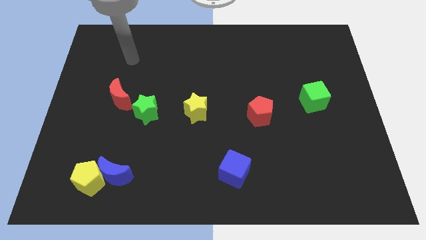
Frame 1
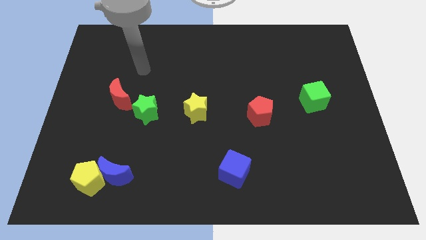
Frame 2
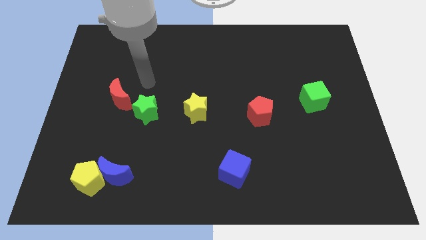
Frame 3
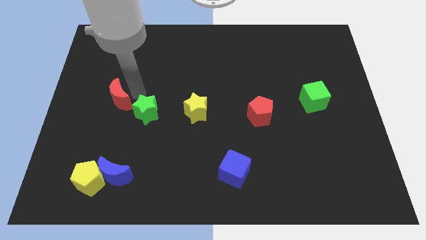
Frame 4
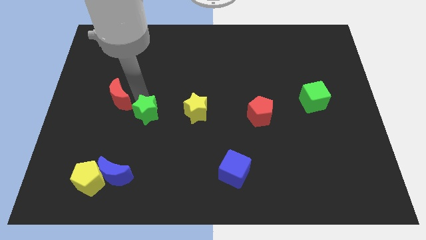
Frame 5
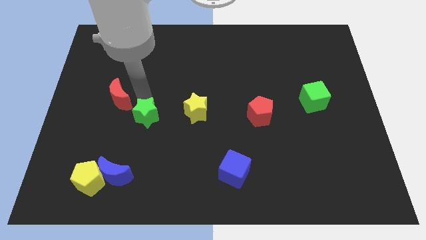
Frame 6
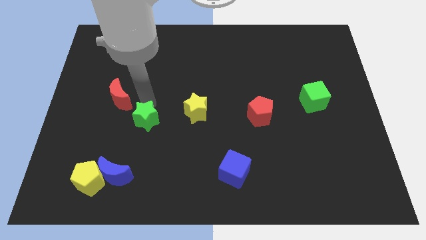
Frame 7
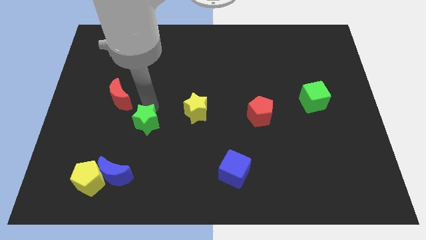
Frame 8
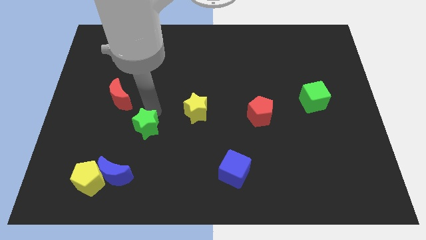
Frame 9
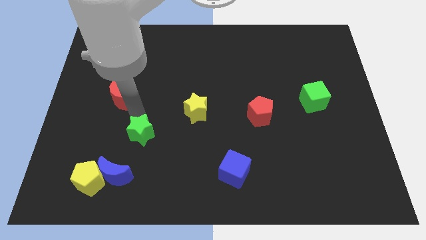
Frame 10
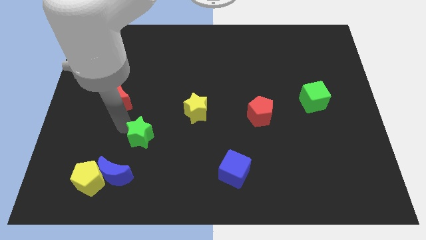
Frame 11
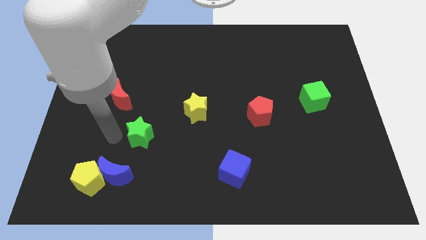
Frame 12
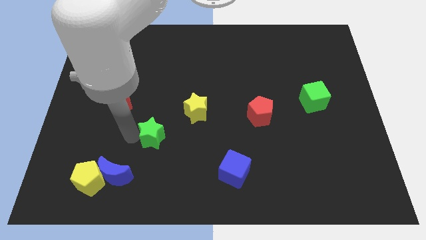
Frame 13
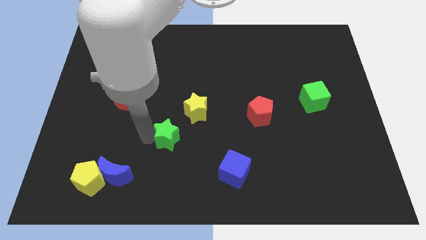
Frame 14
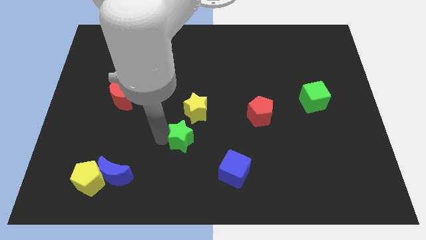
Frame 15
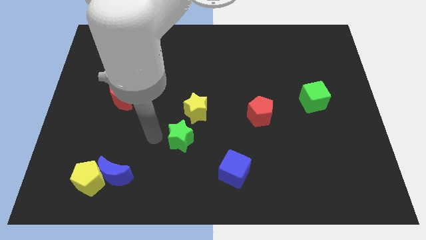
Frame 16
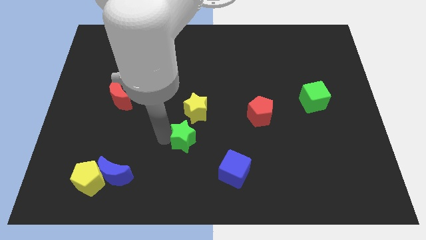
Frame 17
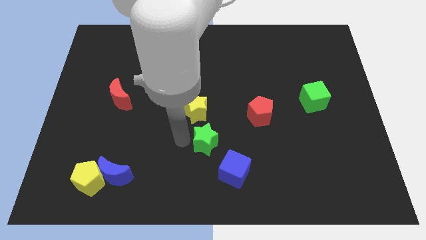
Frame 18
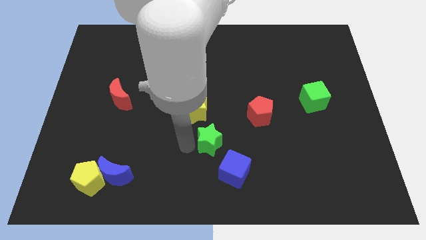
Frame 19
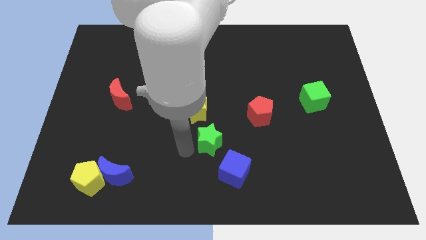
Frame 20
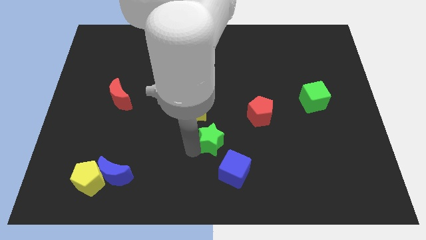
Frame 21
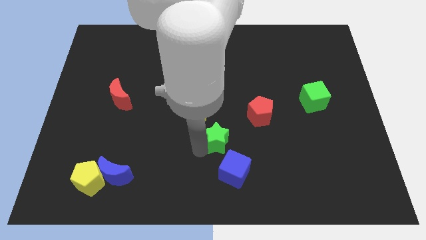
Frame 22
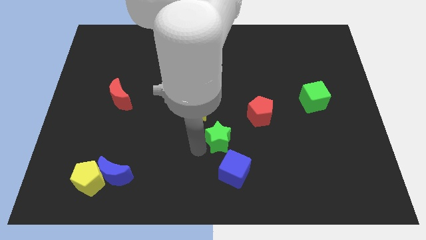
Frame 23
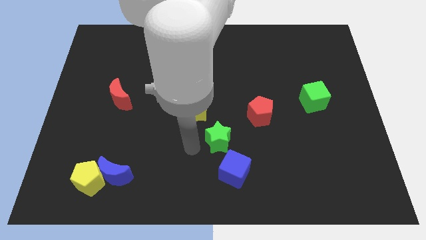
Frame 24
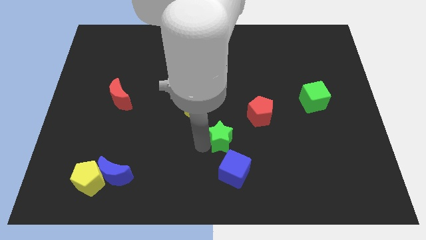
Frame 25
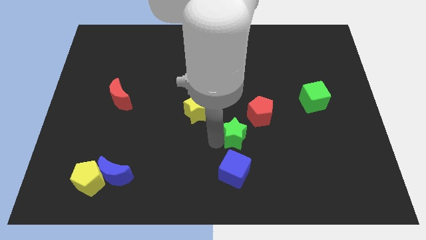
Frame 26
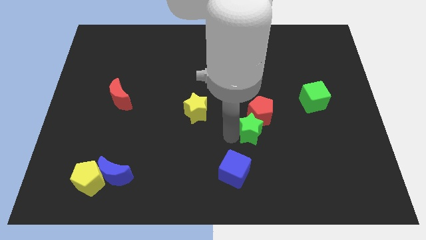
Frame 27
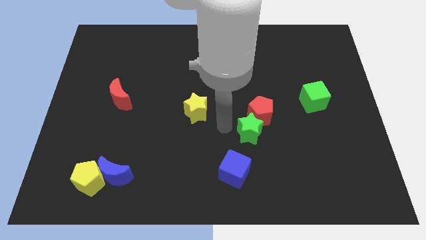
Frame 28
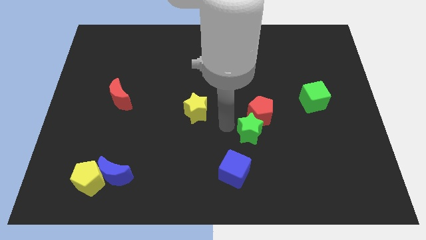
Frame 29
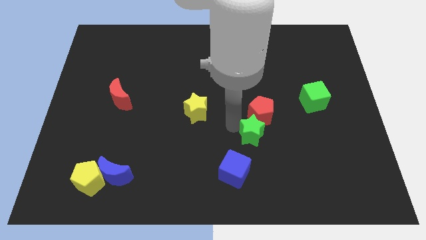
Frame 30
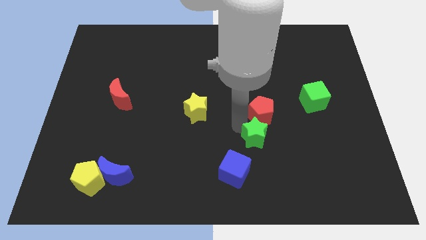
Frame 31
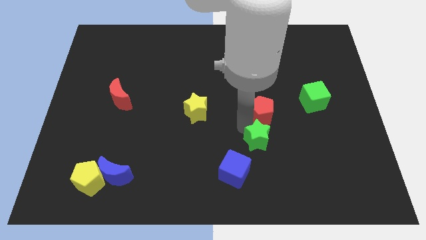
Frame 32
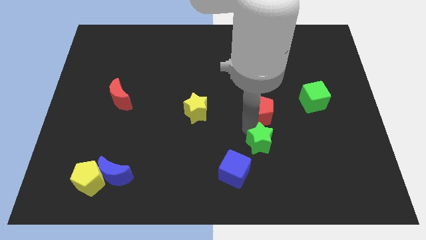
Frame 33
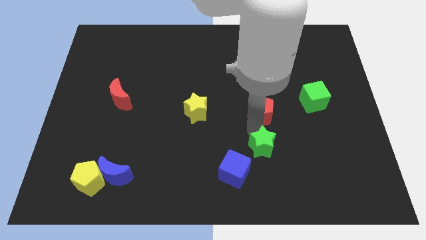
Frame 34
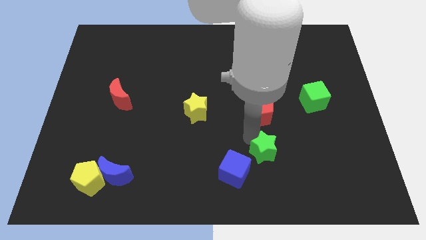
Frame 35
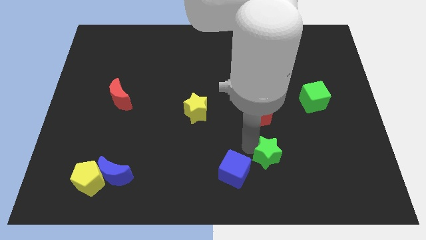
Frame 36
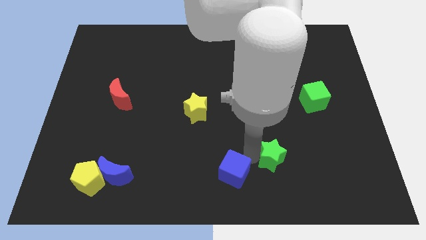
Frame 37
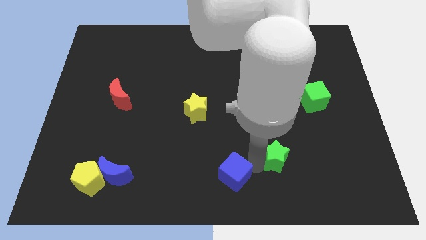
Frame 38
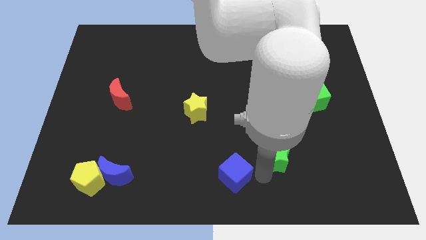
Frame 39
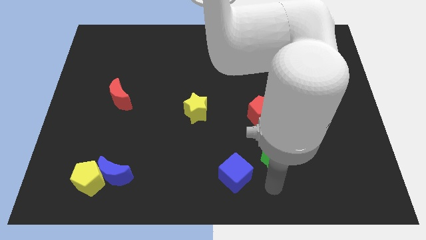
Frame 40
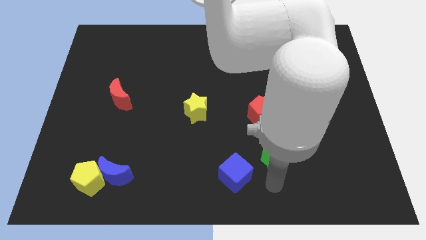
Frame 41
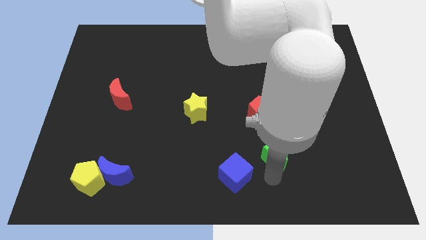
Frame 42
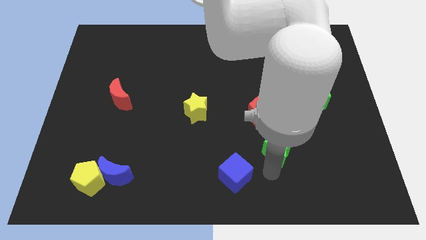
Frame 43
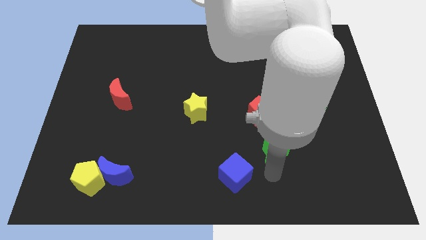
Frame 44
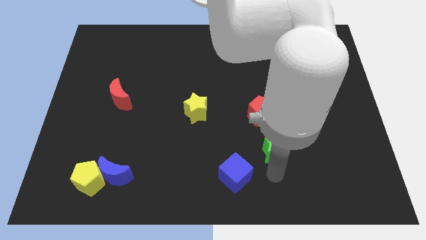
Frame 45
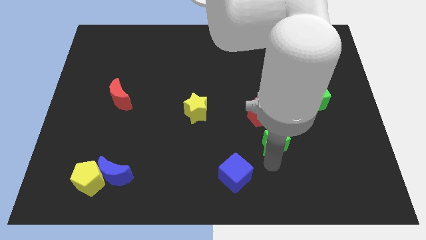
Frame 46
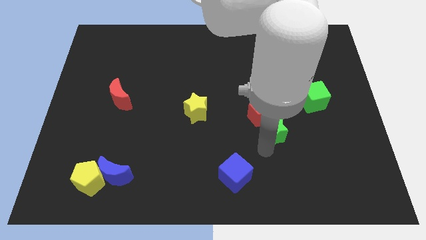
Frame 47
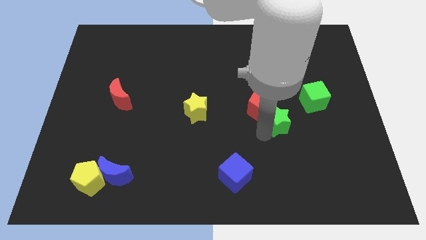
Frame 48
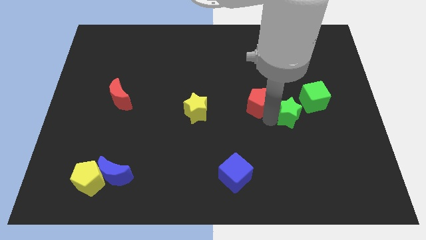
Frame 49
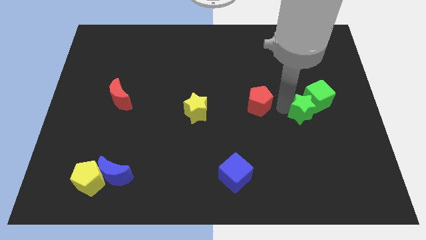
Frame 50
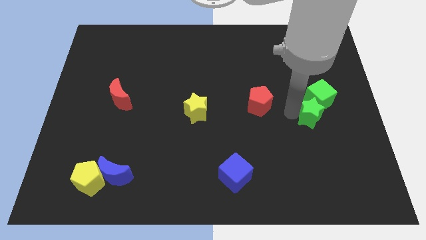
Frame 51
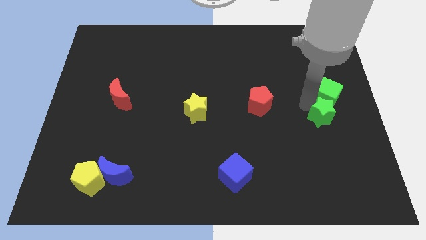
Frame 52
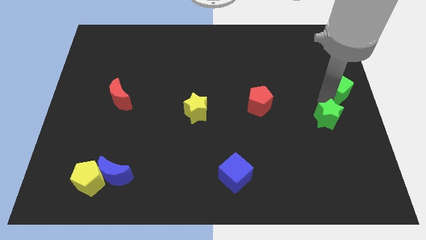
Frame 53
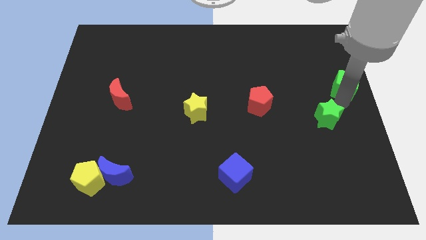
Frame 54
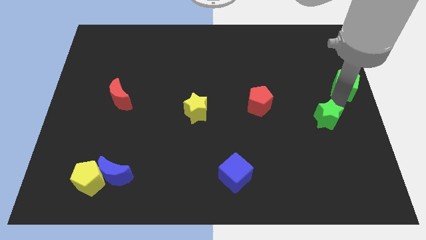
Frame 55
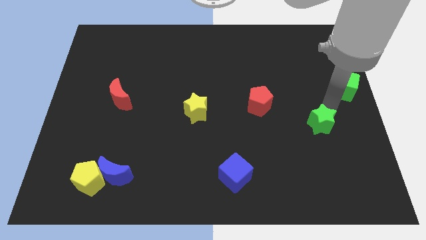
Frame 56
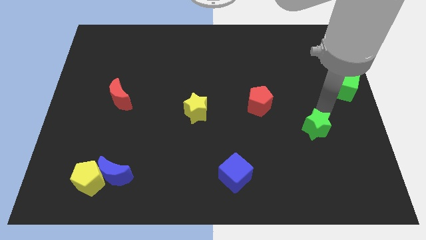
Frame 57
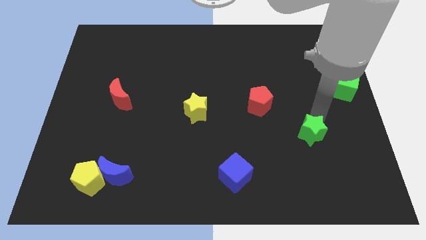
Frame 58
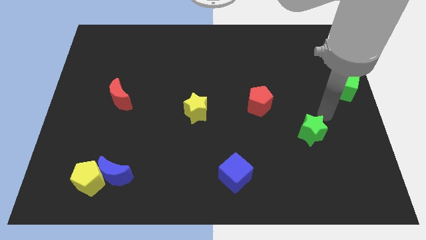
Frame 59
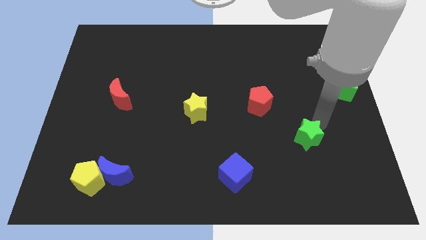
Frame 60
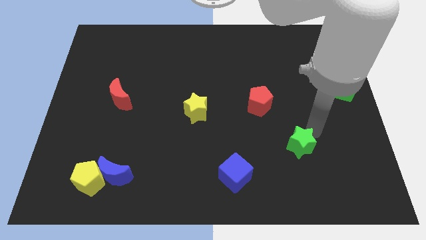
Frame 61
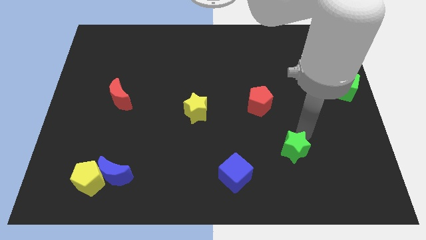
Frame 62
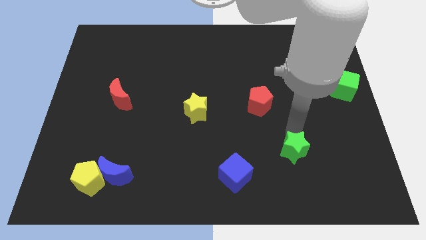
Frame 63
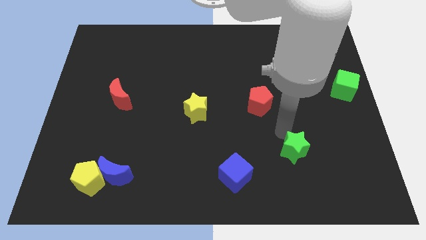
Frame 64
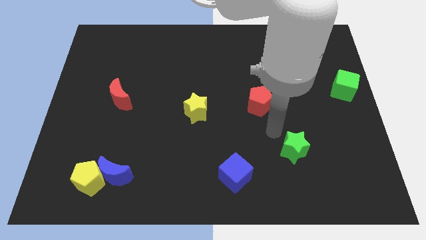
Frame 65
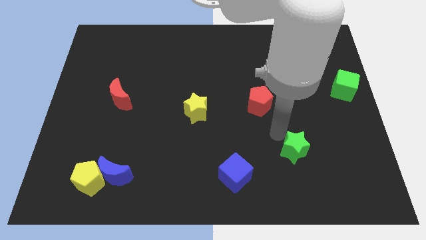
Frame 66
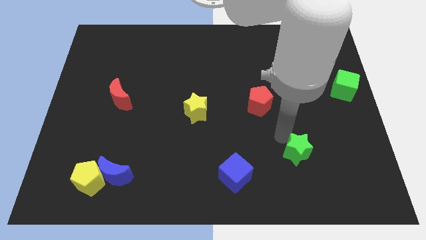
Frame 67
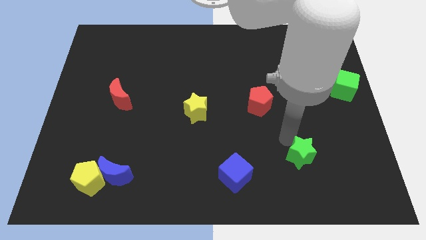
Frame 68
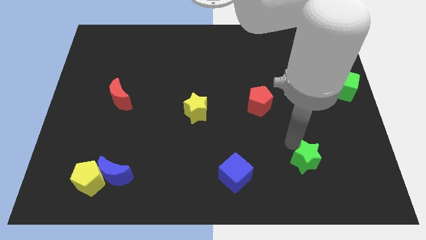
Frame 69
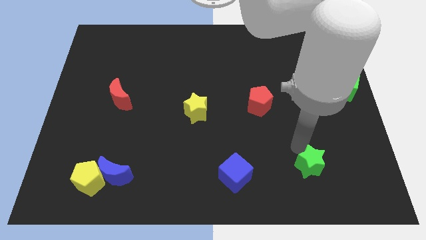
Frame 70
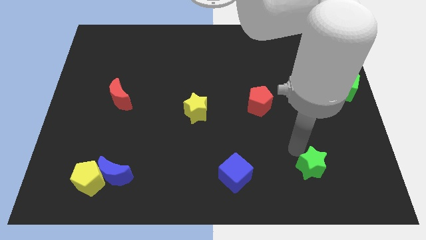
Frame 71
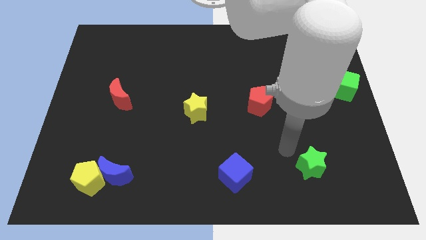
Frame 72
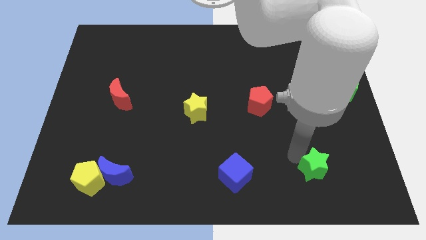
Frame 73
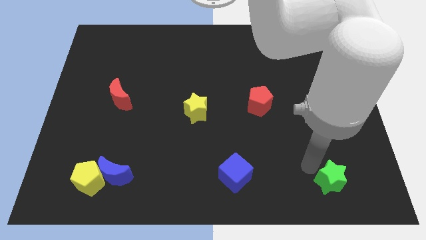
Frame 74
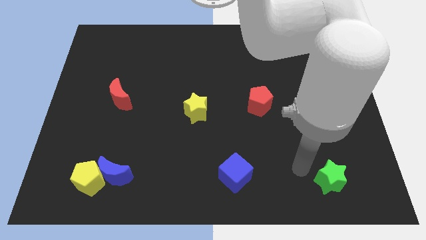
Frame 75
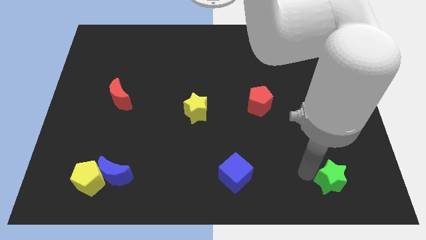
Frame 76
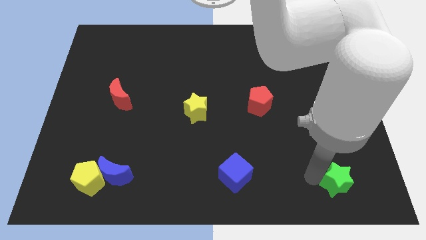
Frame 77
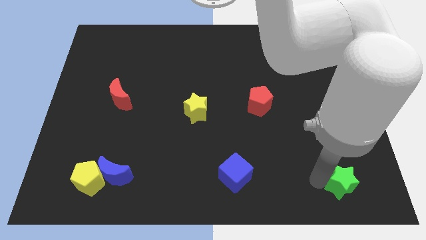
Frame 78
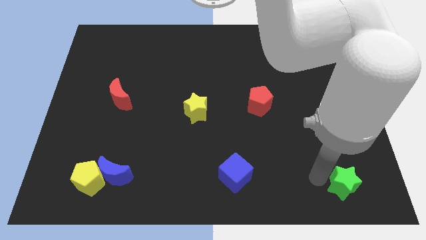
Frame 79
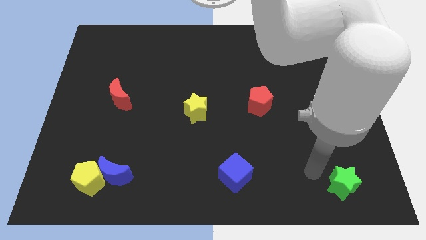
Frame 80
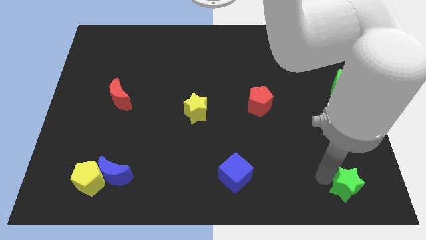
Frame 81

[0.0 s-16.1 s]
slide the green star to the bottom right of the board
